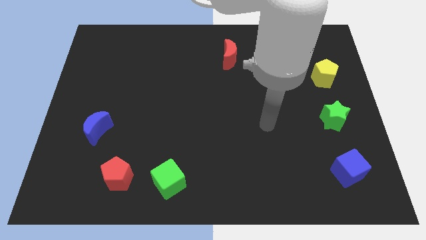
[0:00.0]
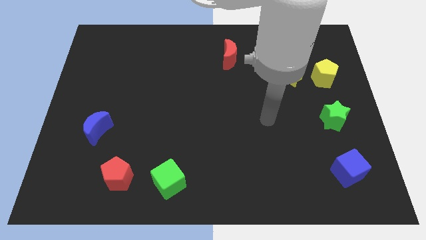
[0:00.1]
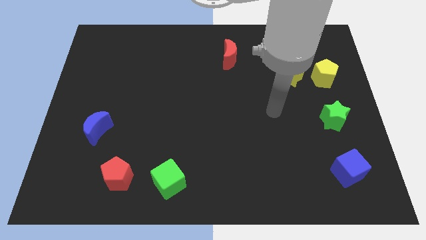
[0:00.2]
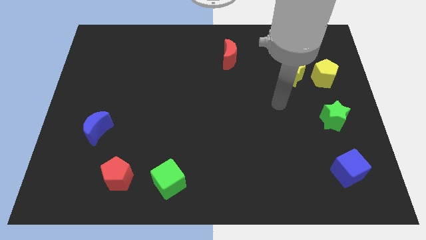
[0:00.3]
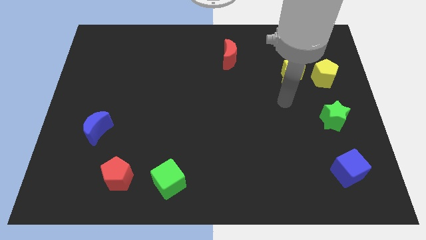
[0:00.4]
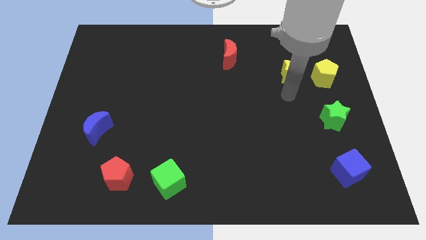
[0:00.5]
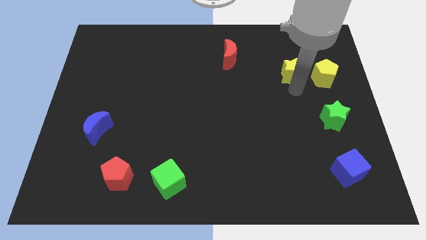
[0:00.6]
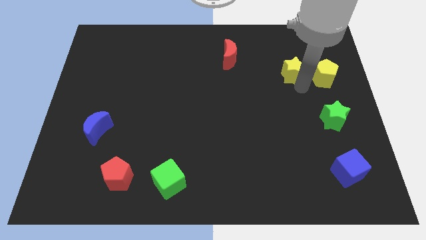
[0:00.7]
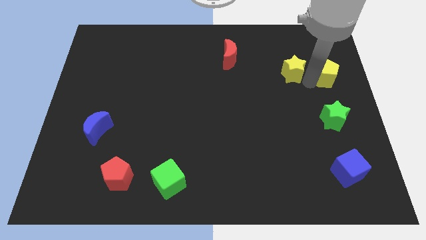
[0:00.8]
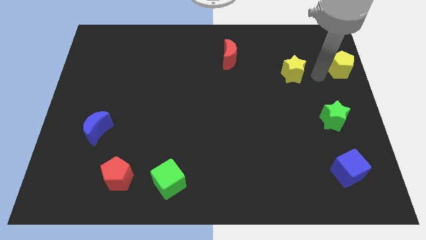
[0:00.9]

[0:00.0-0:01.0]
pull the yellow star apart from the yellow pentagon

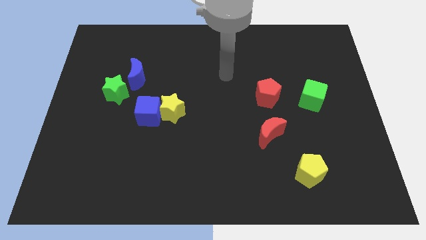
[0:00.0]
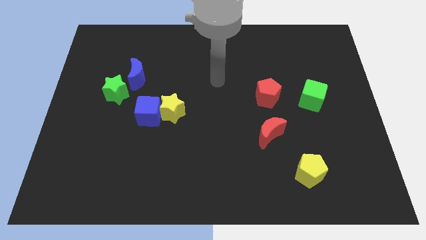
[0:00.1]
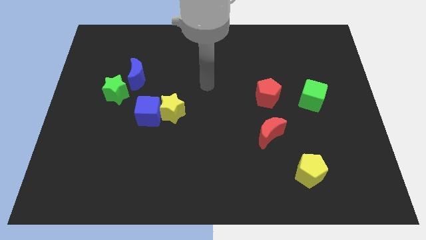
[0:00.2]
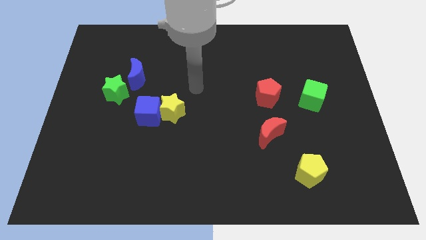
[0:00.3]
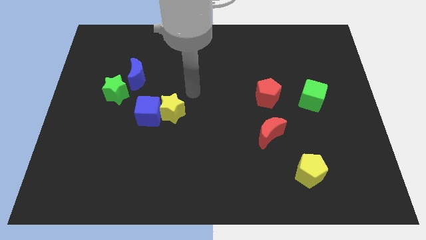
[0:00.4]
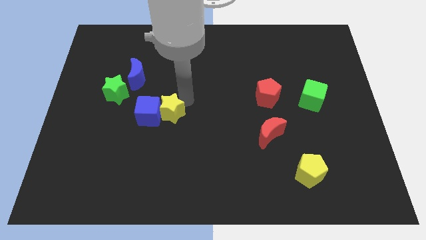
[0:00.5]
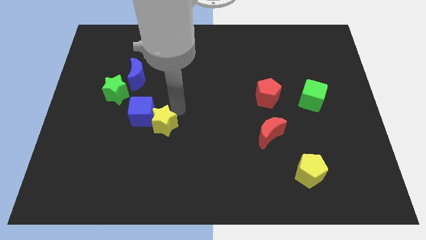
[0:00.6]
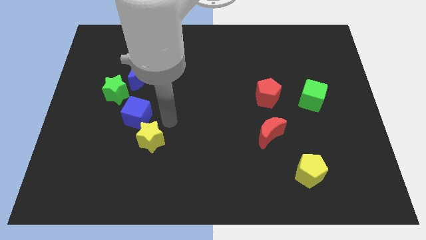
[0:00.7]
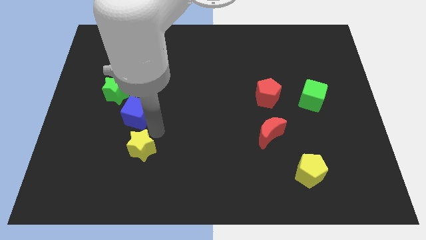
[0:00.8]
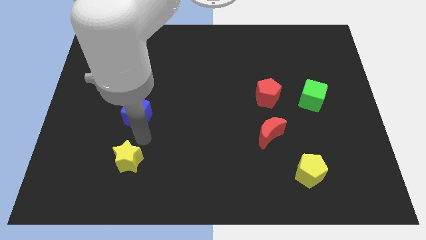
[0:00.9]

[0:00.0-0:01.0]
move the blue cube away from the yellow star

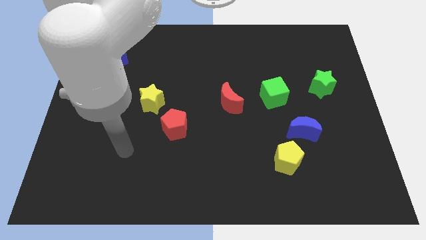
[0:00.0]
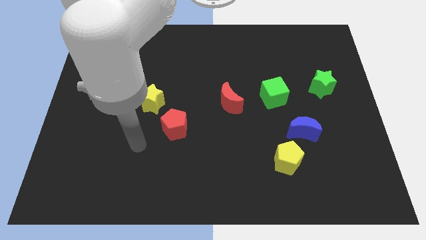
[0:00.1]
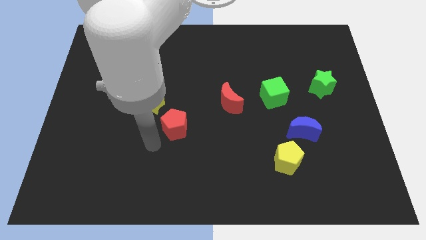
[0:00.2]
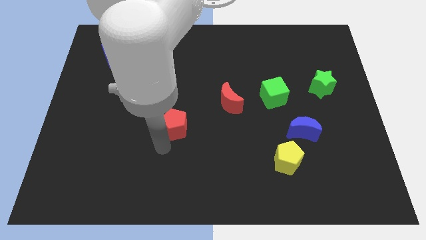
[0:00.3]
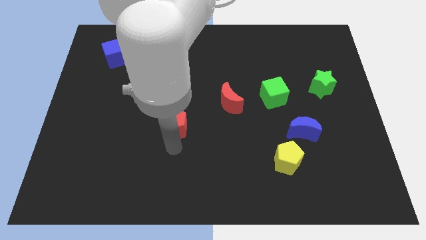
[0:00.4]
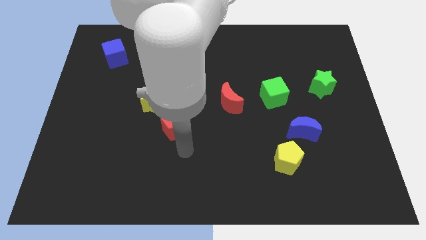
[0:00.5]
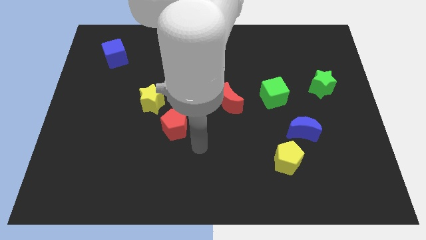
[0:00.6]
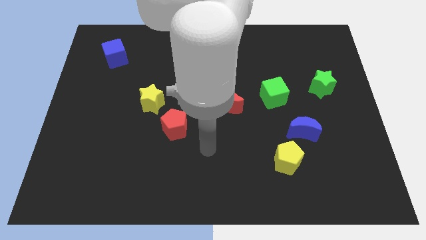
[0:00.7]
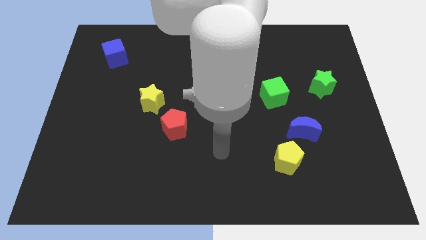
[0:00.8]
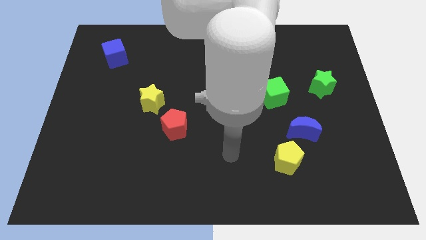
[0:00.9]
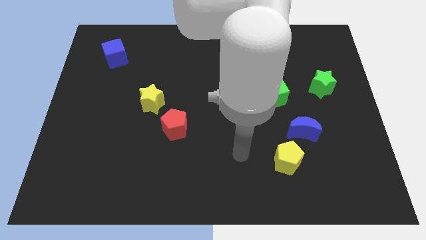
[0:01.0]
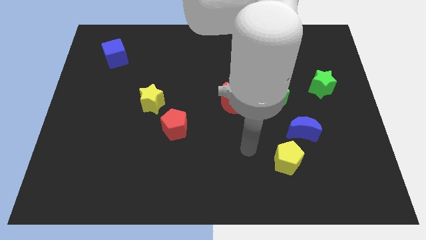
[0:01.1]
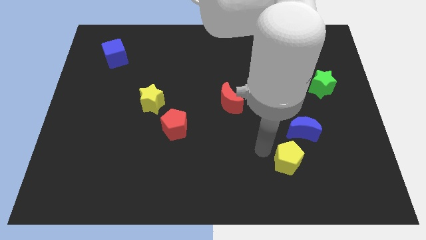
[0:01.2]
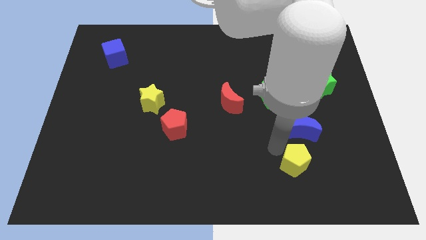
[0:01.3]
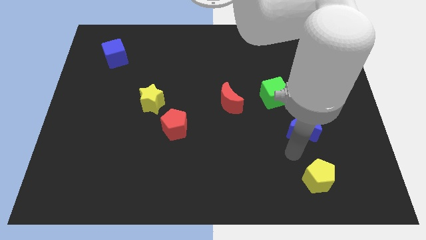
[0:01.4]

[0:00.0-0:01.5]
pull the blue moon apart from the yellow pentagon

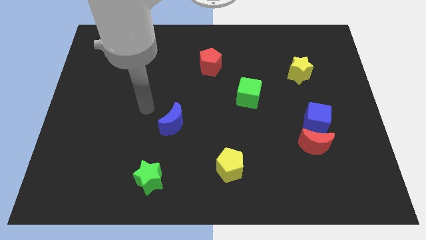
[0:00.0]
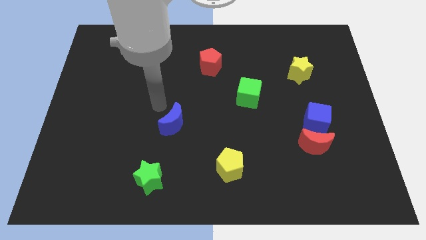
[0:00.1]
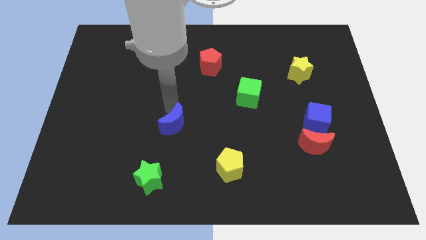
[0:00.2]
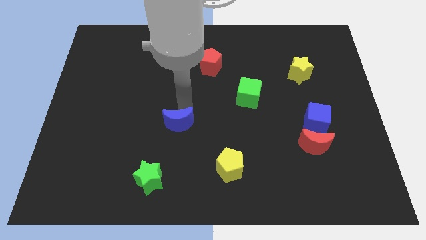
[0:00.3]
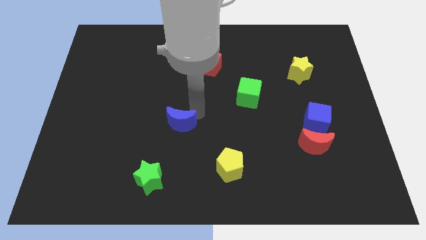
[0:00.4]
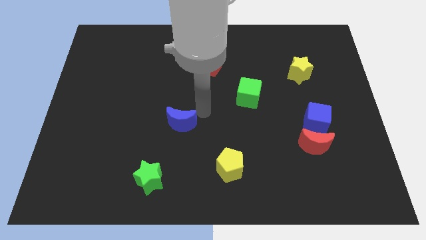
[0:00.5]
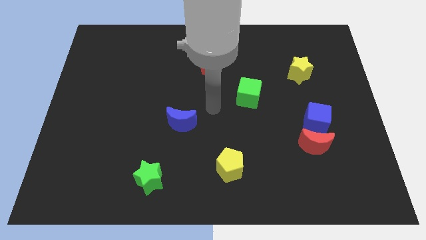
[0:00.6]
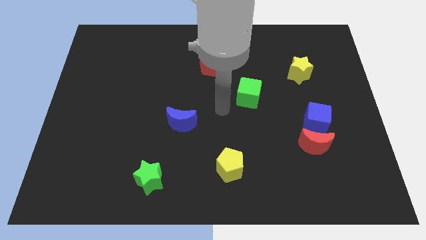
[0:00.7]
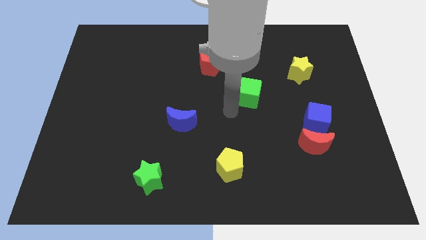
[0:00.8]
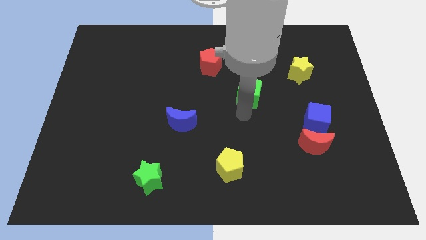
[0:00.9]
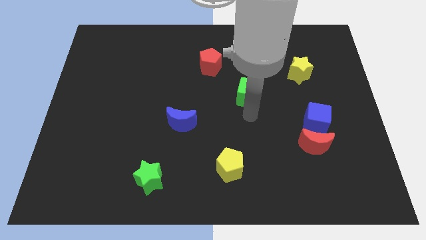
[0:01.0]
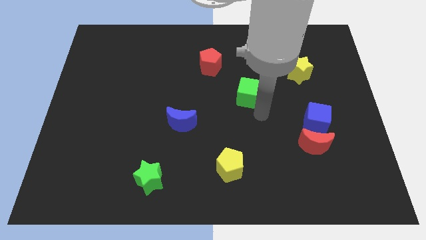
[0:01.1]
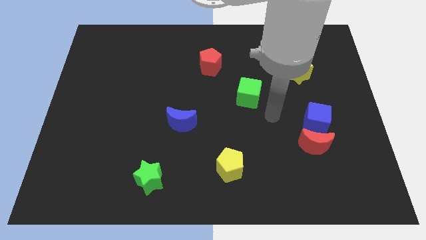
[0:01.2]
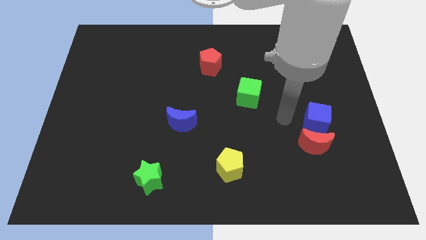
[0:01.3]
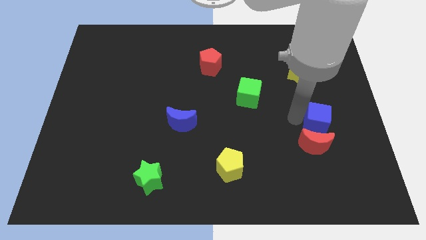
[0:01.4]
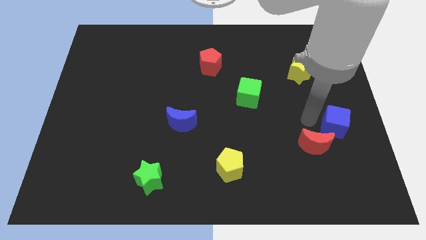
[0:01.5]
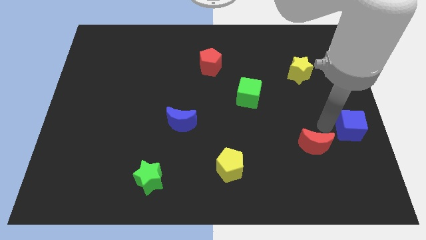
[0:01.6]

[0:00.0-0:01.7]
separate the red moon from the blue cube

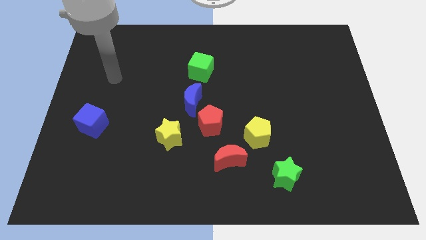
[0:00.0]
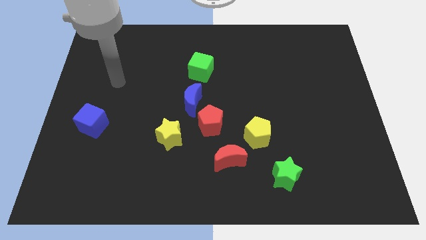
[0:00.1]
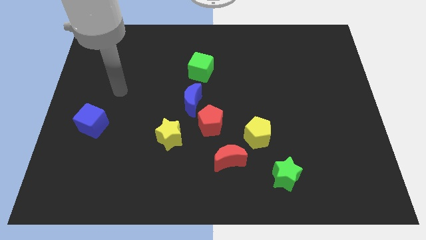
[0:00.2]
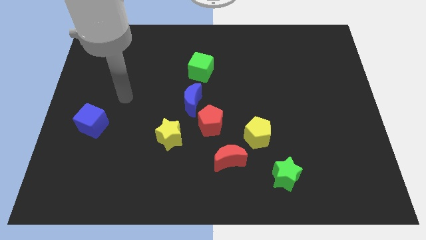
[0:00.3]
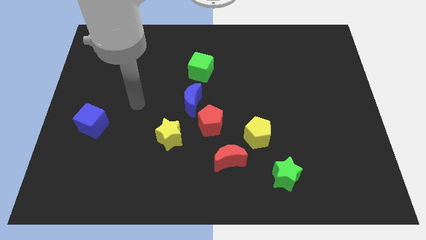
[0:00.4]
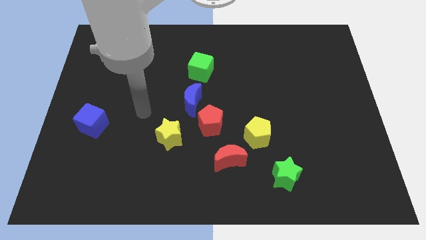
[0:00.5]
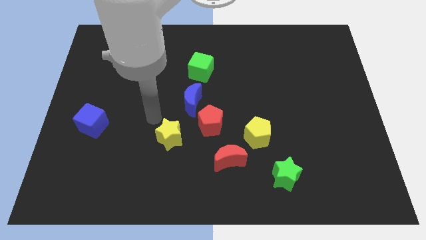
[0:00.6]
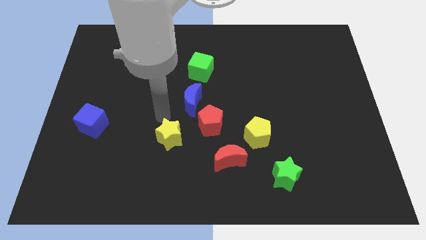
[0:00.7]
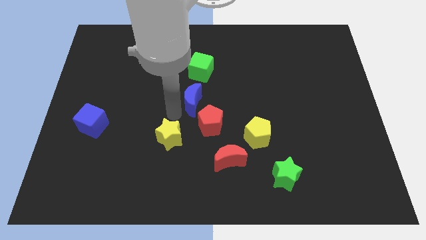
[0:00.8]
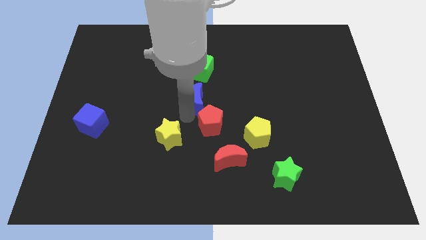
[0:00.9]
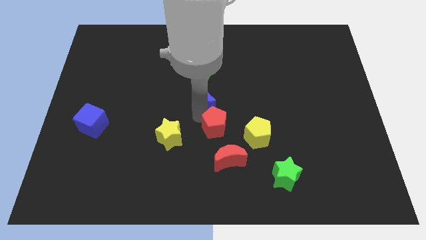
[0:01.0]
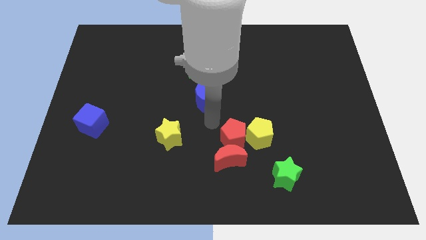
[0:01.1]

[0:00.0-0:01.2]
move the blue moon away from the red pentagon

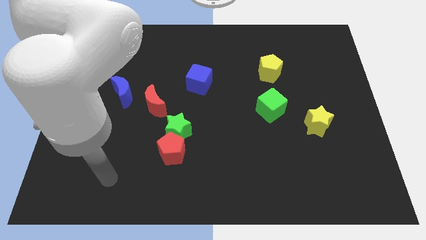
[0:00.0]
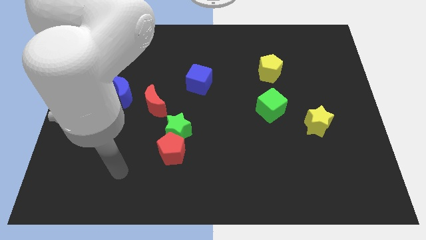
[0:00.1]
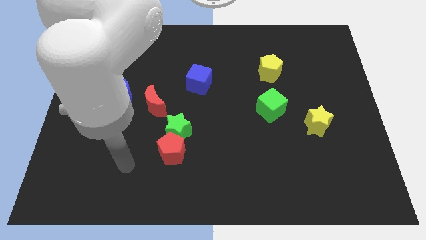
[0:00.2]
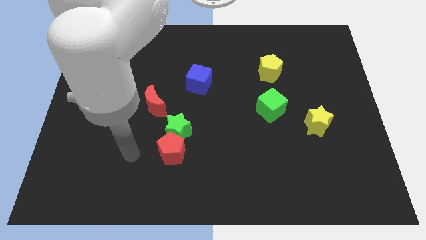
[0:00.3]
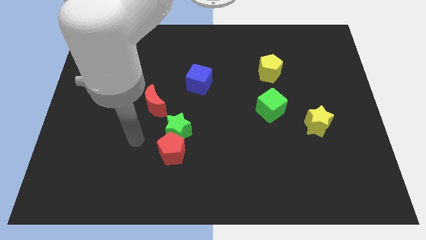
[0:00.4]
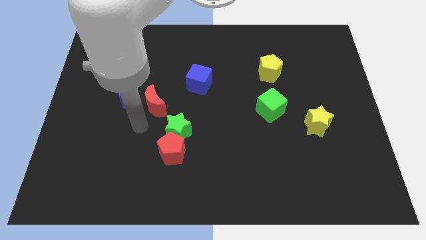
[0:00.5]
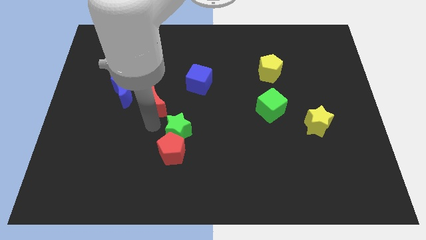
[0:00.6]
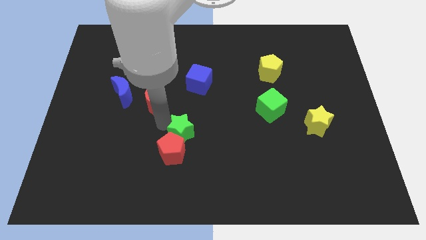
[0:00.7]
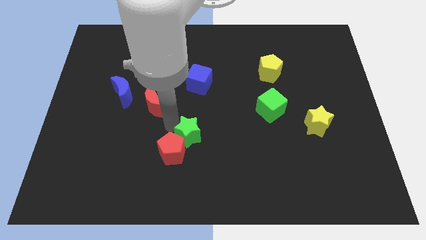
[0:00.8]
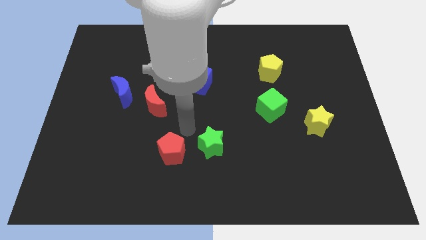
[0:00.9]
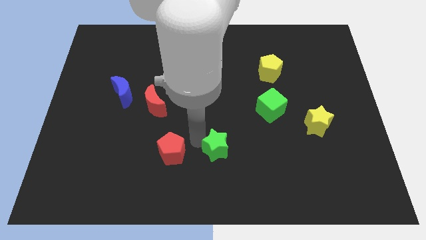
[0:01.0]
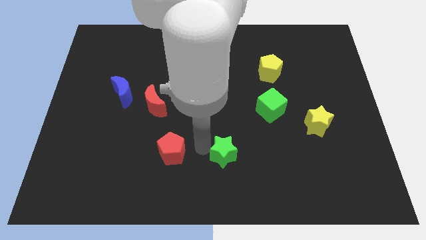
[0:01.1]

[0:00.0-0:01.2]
move the red pentagon away from the green star

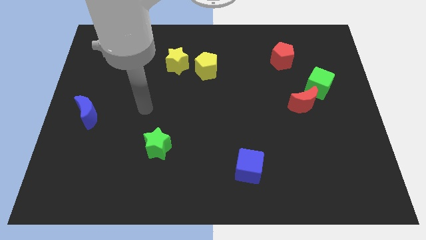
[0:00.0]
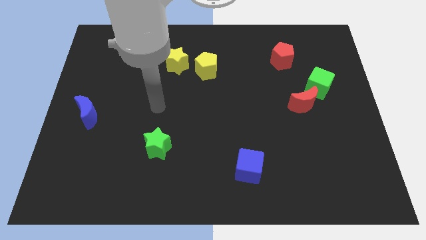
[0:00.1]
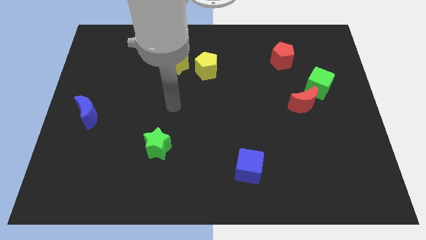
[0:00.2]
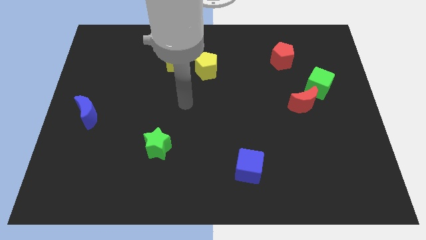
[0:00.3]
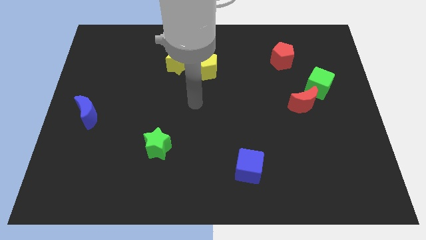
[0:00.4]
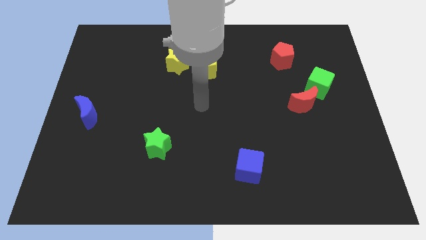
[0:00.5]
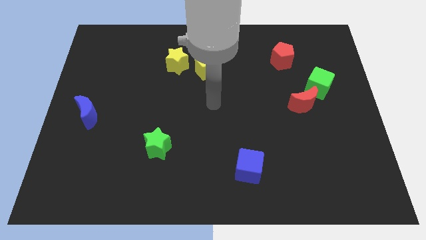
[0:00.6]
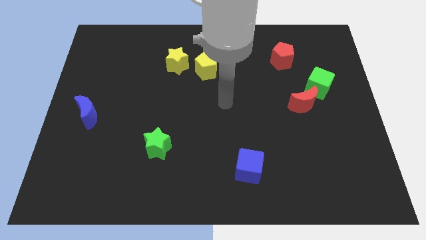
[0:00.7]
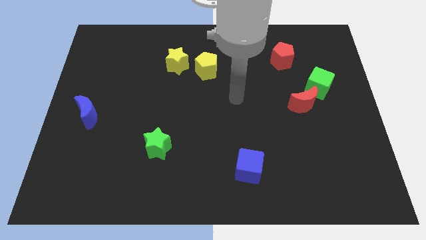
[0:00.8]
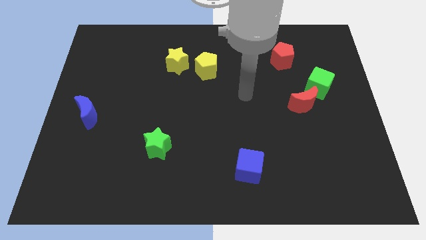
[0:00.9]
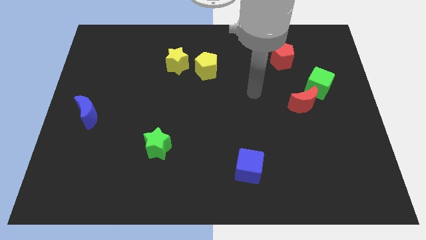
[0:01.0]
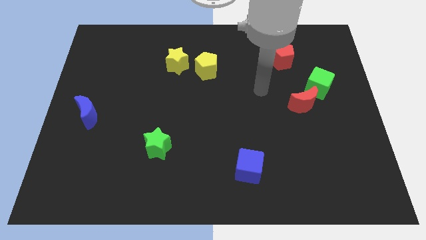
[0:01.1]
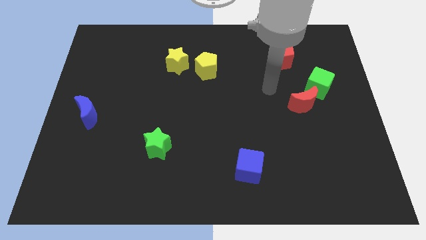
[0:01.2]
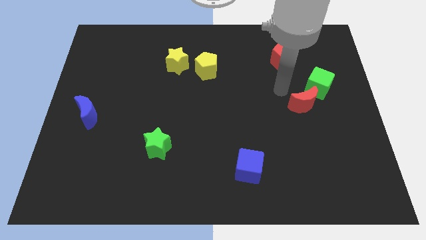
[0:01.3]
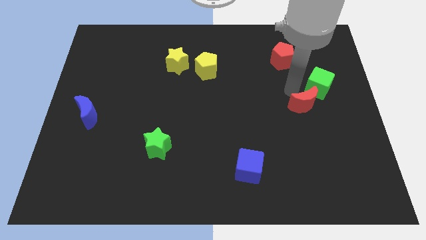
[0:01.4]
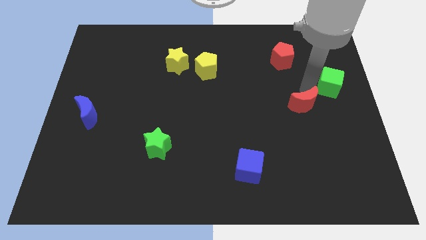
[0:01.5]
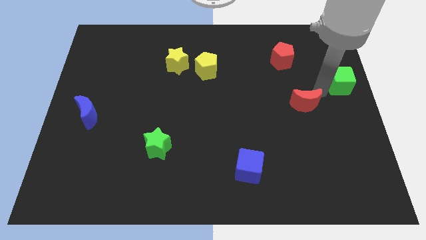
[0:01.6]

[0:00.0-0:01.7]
pull the red moon apart from the green cube
